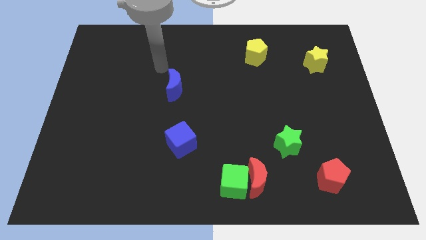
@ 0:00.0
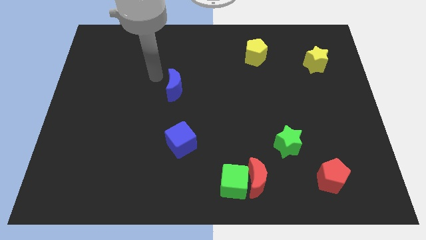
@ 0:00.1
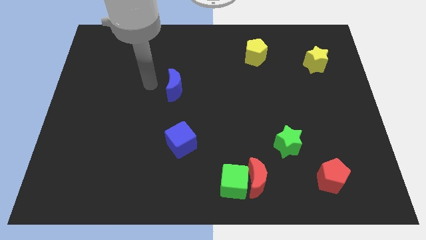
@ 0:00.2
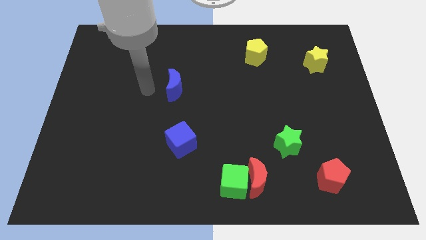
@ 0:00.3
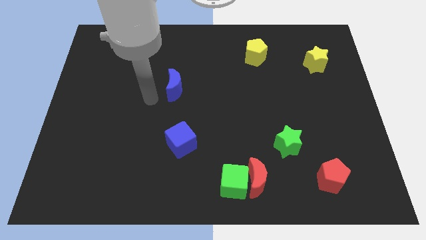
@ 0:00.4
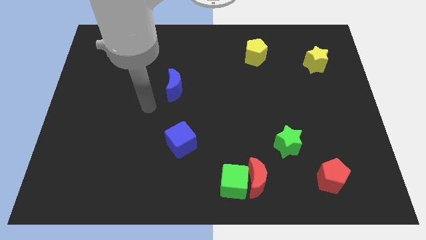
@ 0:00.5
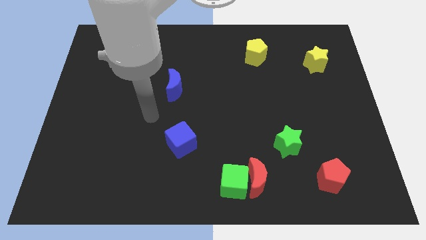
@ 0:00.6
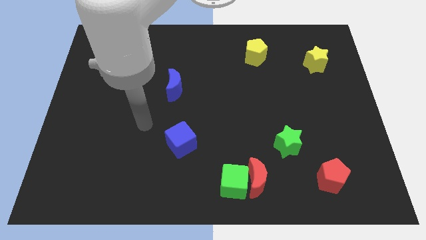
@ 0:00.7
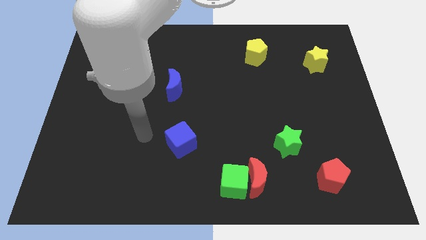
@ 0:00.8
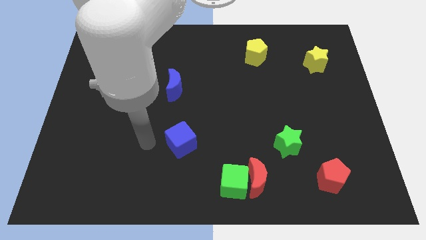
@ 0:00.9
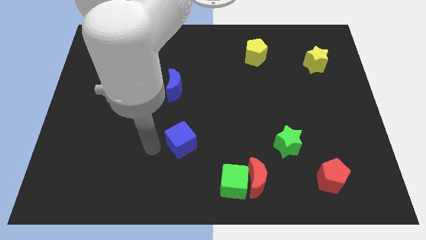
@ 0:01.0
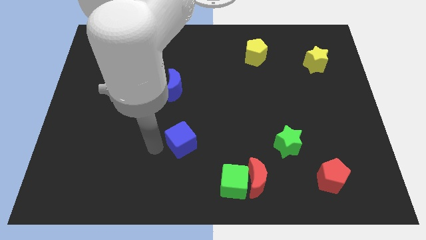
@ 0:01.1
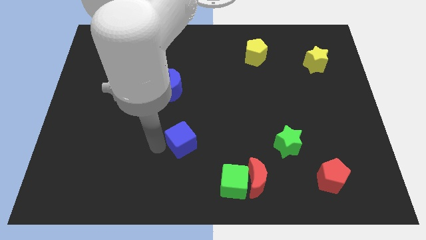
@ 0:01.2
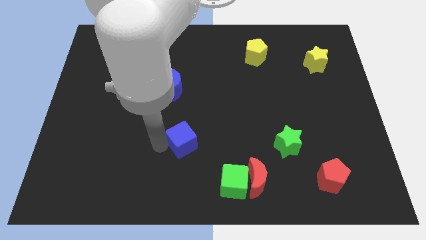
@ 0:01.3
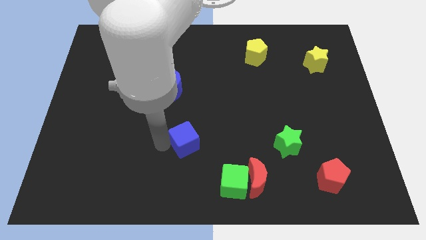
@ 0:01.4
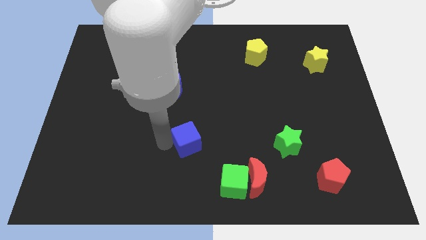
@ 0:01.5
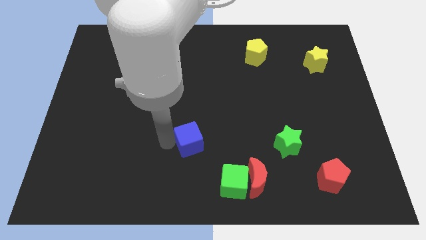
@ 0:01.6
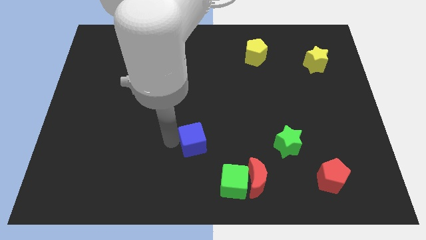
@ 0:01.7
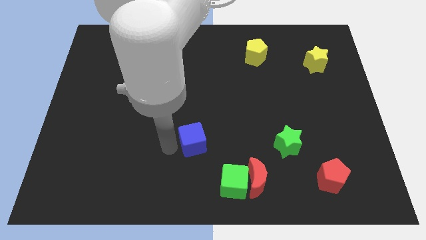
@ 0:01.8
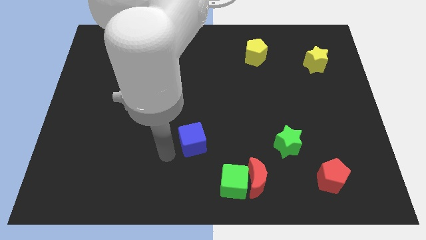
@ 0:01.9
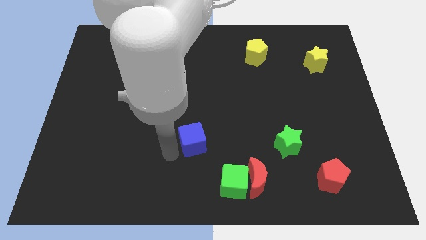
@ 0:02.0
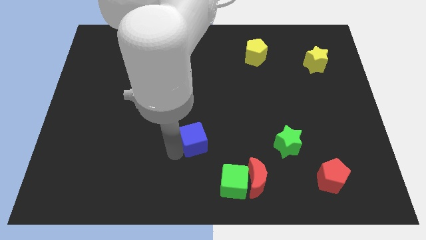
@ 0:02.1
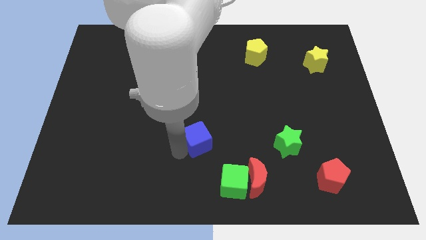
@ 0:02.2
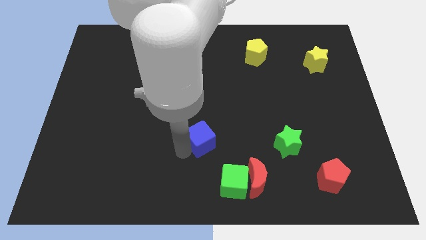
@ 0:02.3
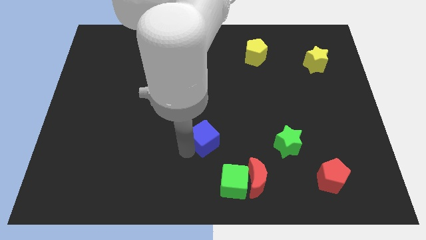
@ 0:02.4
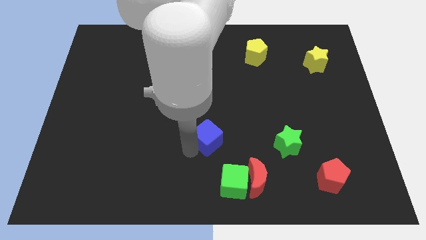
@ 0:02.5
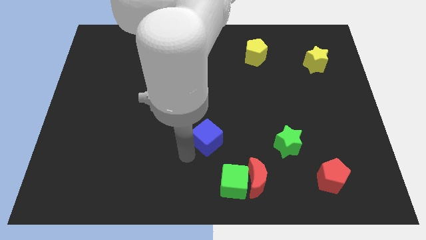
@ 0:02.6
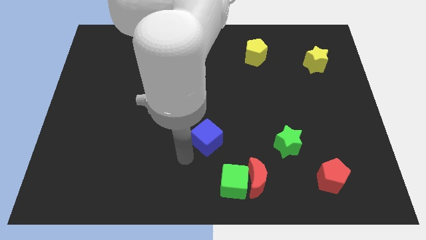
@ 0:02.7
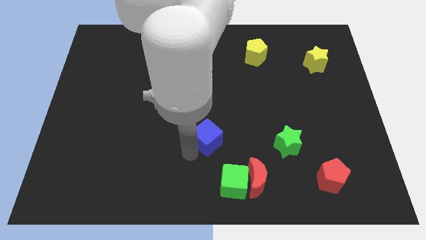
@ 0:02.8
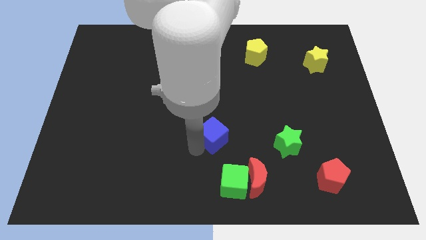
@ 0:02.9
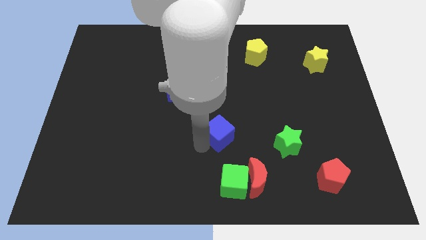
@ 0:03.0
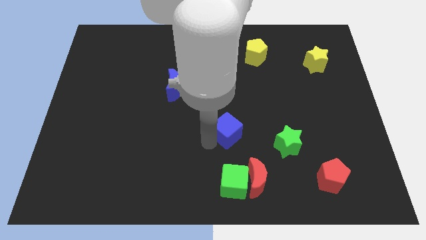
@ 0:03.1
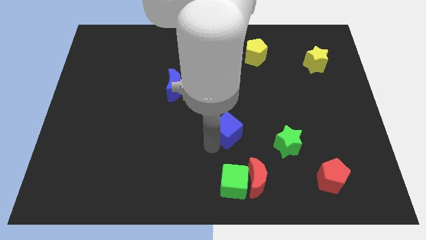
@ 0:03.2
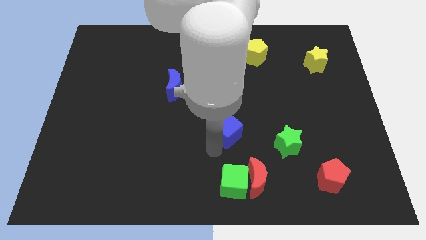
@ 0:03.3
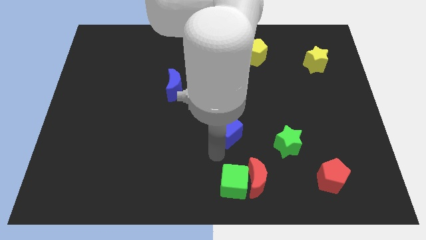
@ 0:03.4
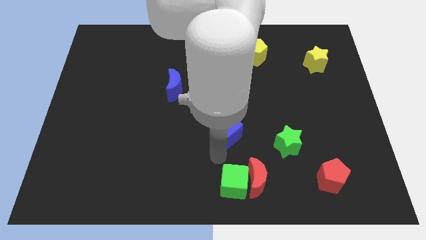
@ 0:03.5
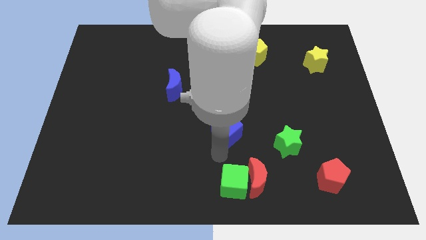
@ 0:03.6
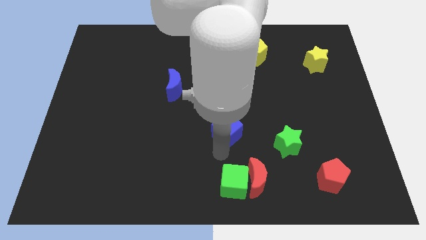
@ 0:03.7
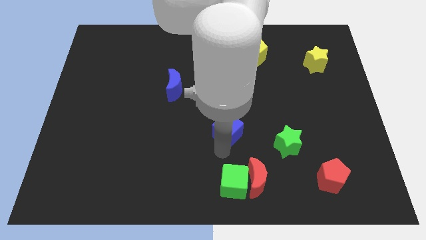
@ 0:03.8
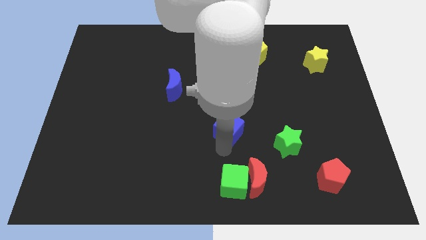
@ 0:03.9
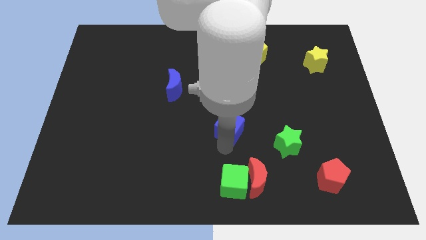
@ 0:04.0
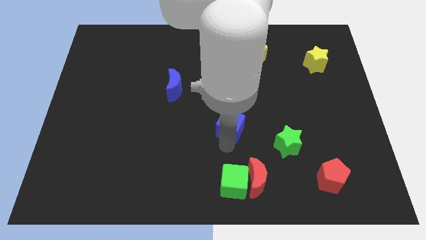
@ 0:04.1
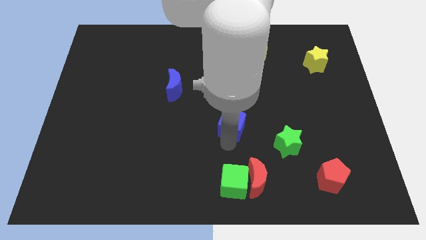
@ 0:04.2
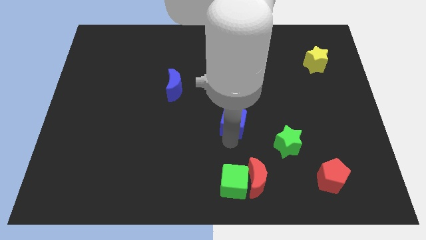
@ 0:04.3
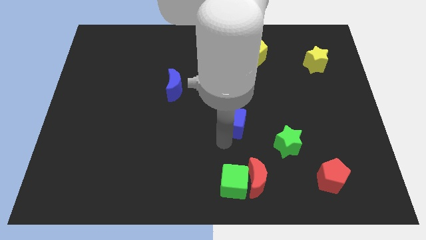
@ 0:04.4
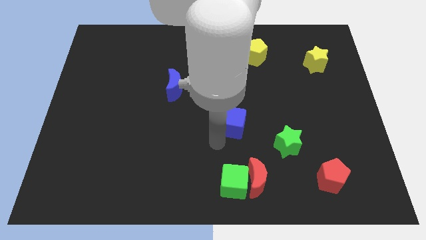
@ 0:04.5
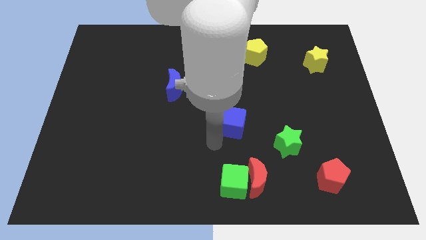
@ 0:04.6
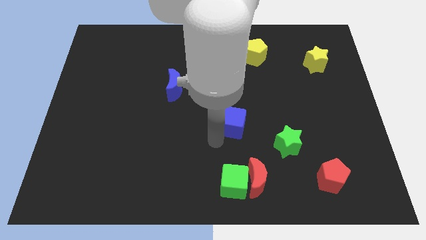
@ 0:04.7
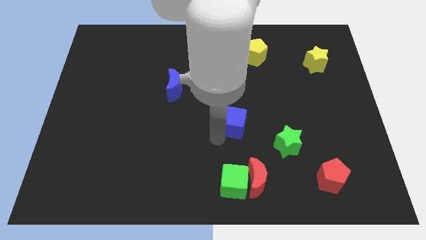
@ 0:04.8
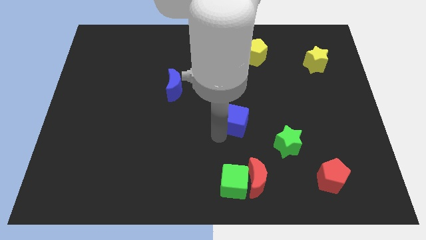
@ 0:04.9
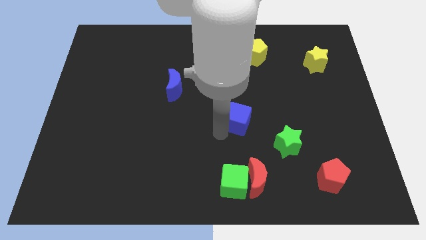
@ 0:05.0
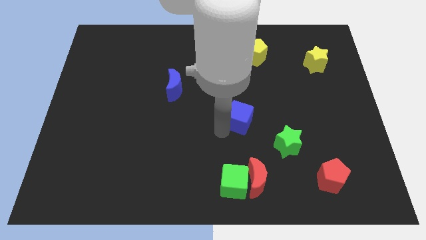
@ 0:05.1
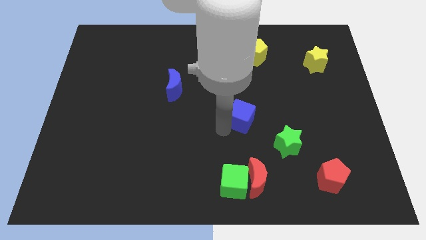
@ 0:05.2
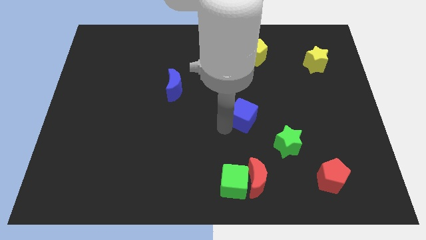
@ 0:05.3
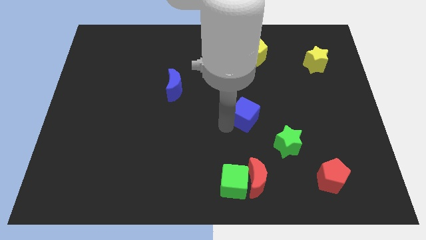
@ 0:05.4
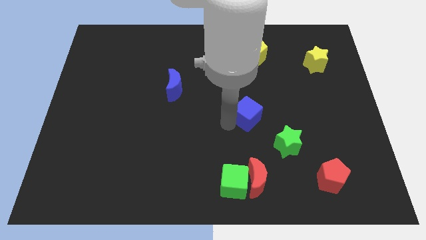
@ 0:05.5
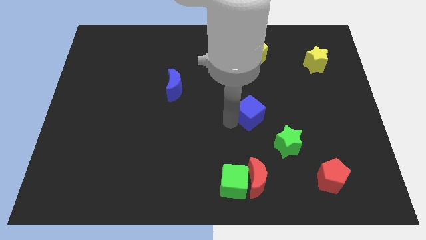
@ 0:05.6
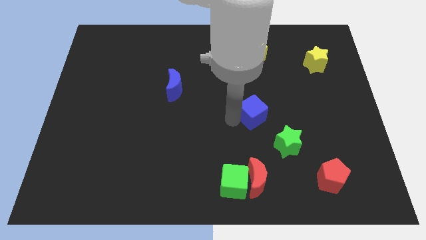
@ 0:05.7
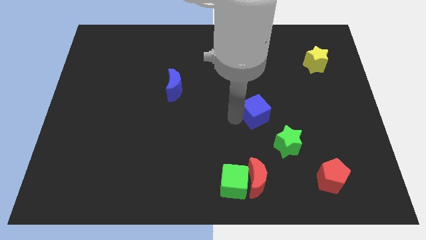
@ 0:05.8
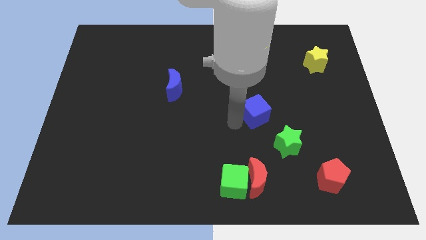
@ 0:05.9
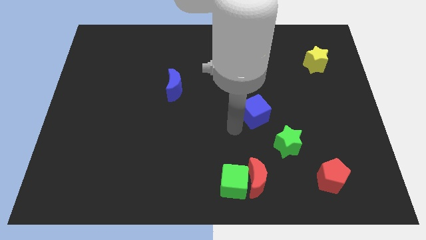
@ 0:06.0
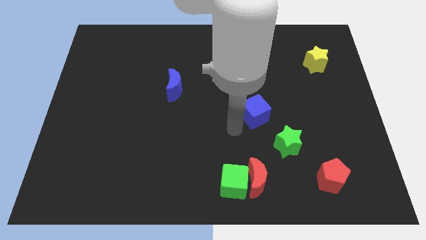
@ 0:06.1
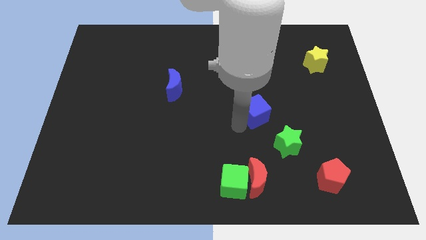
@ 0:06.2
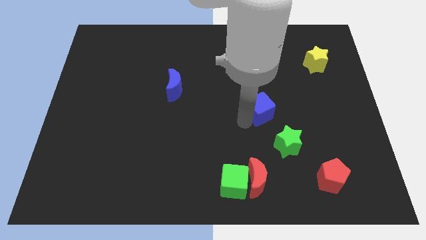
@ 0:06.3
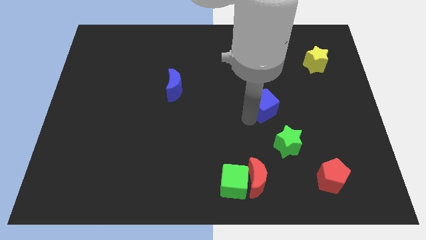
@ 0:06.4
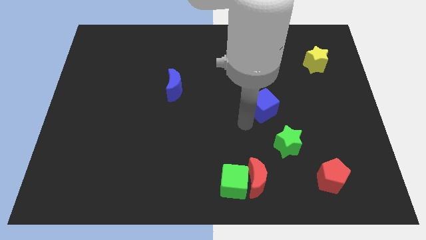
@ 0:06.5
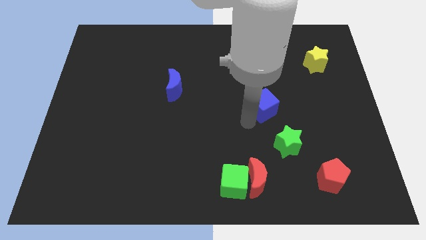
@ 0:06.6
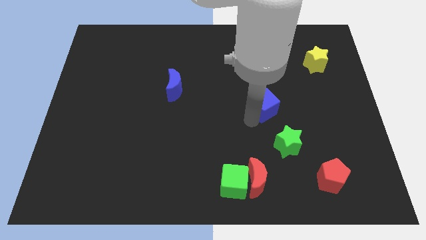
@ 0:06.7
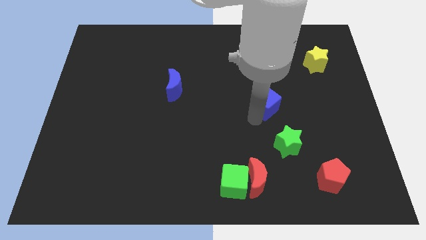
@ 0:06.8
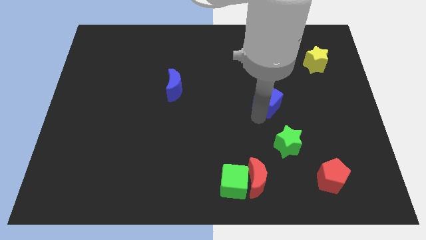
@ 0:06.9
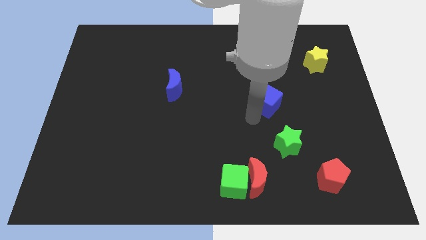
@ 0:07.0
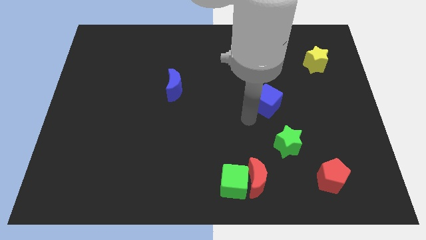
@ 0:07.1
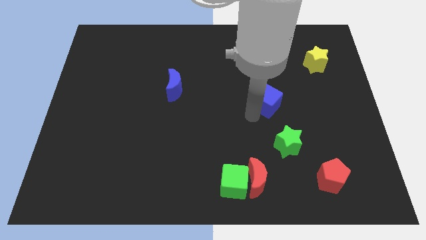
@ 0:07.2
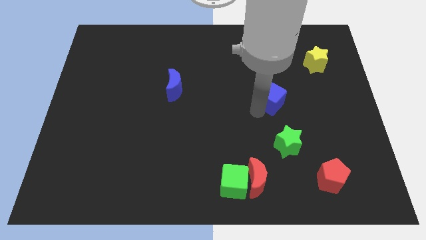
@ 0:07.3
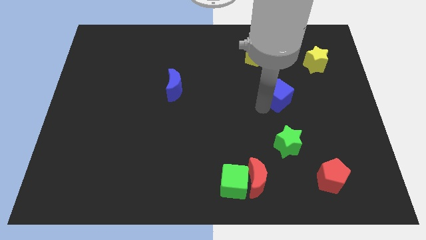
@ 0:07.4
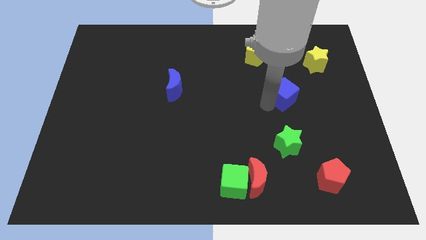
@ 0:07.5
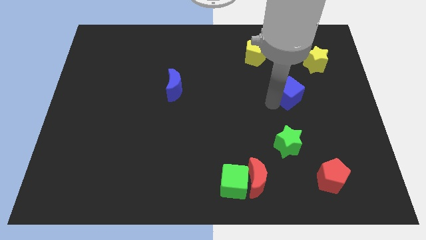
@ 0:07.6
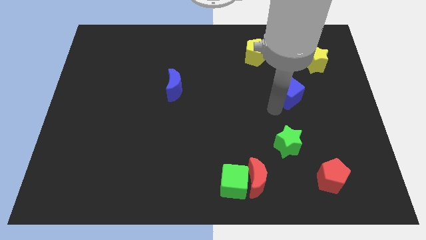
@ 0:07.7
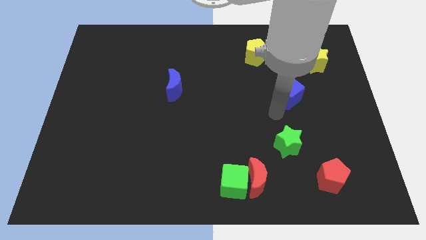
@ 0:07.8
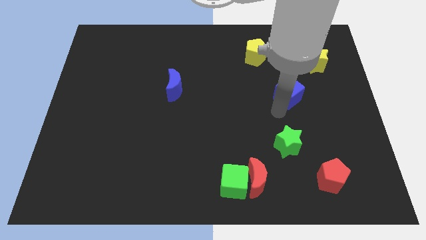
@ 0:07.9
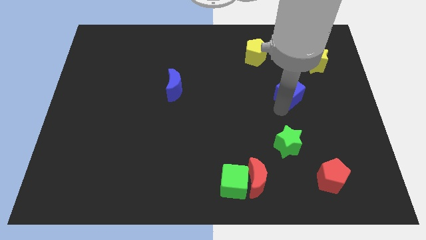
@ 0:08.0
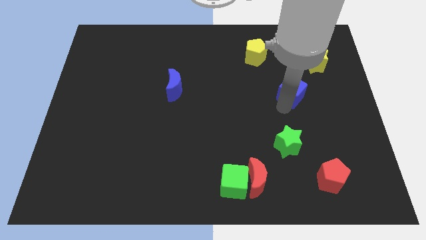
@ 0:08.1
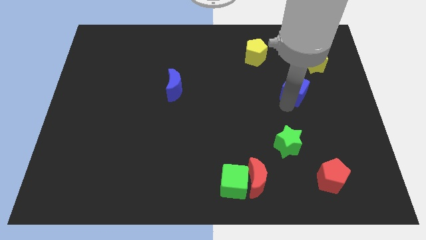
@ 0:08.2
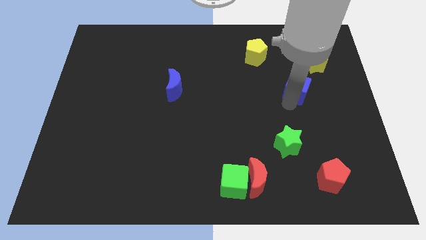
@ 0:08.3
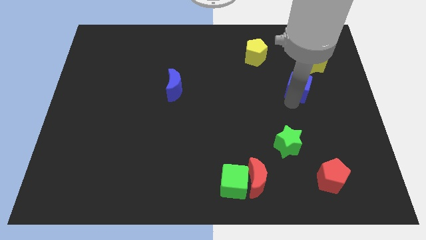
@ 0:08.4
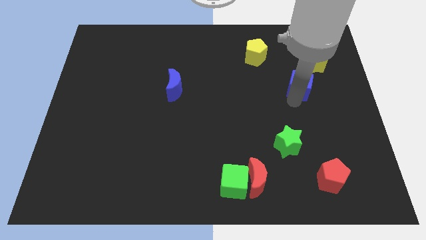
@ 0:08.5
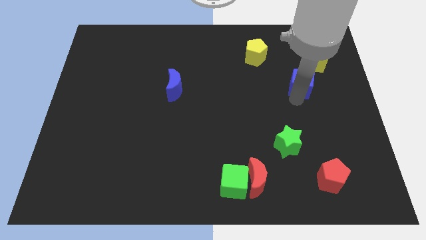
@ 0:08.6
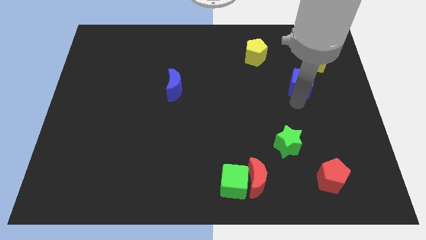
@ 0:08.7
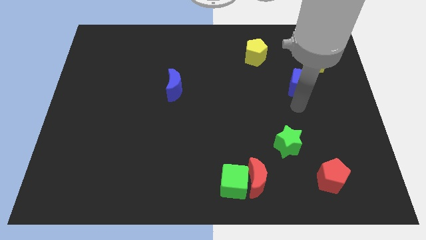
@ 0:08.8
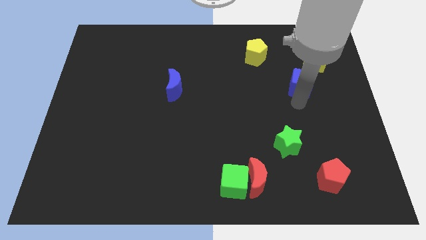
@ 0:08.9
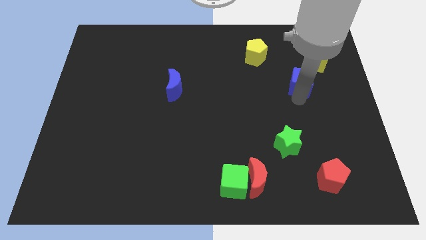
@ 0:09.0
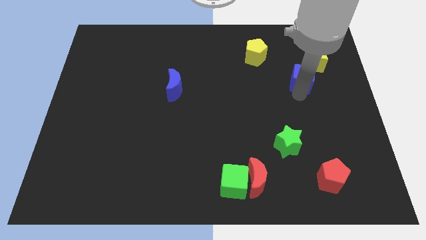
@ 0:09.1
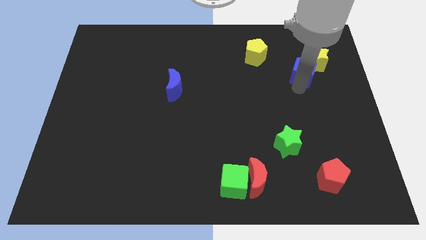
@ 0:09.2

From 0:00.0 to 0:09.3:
put the blue cube to the yellow star
